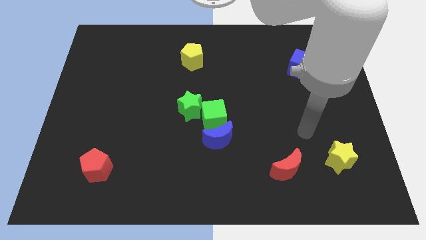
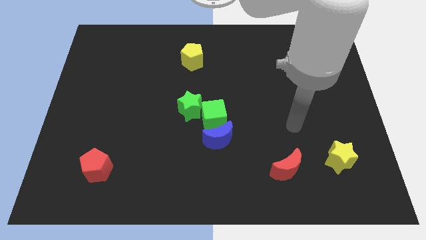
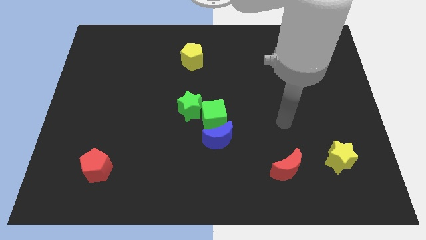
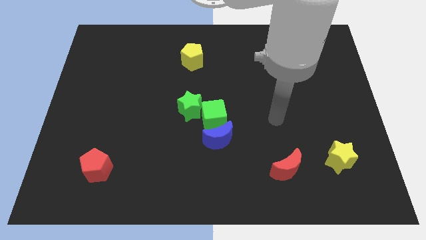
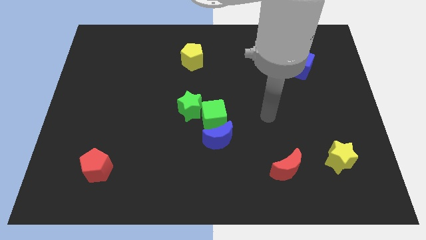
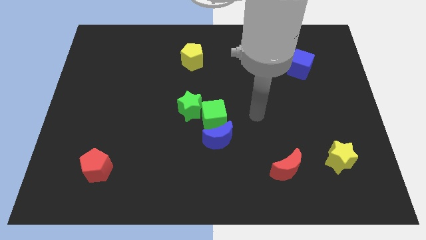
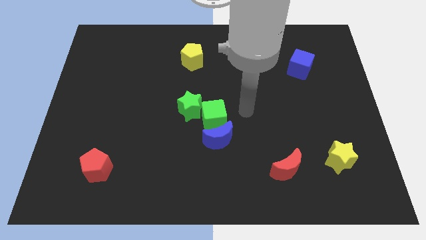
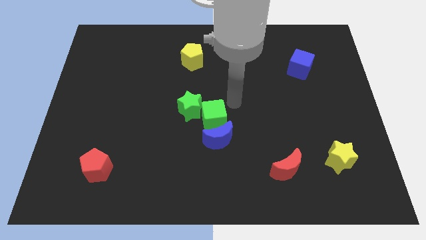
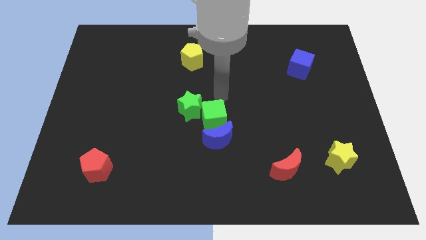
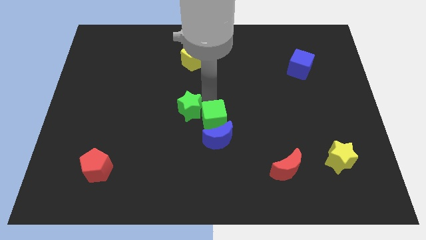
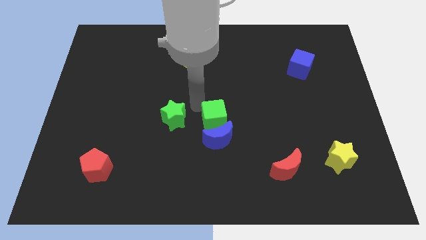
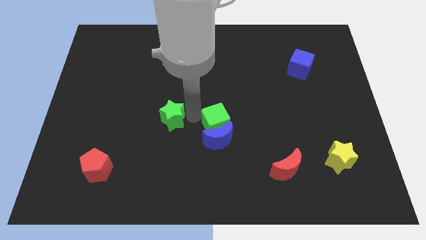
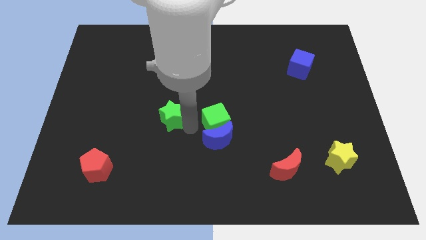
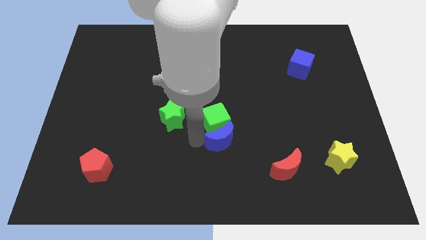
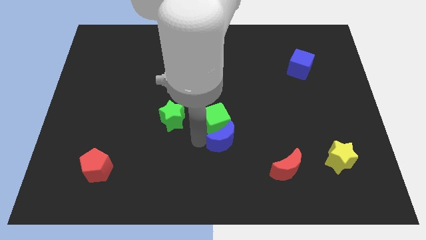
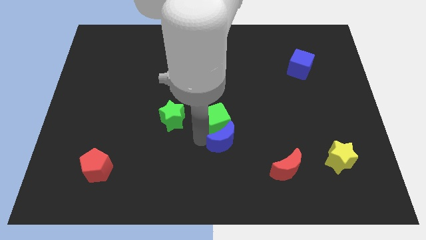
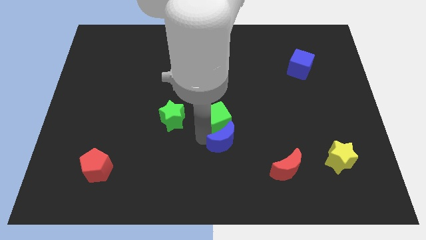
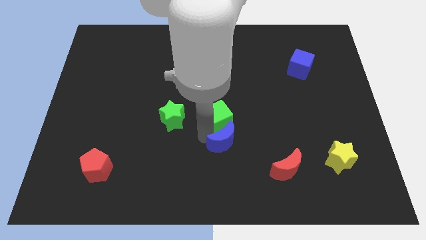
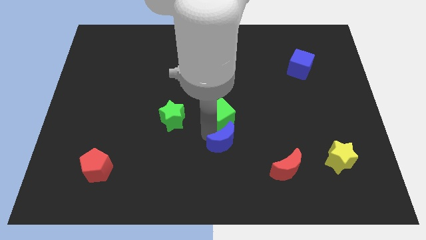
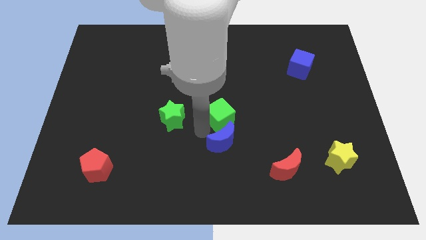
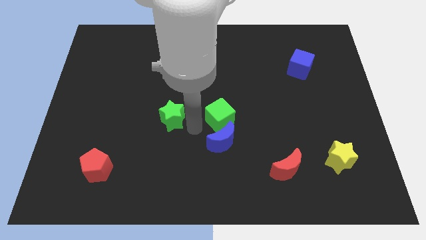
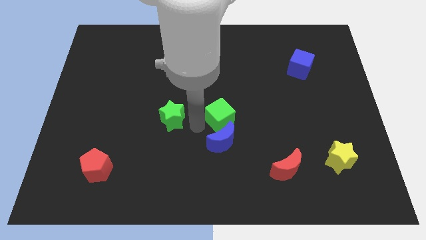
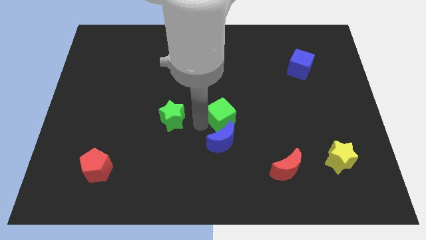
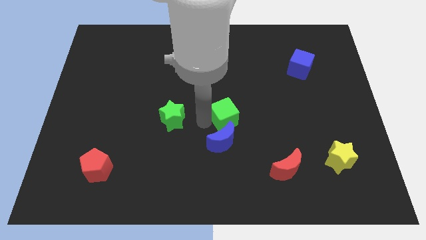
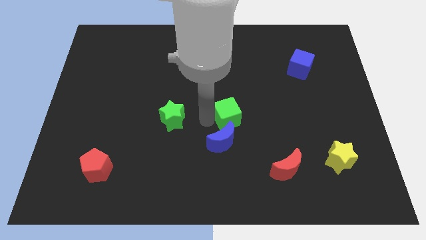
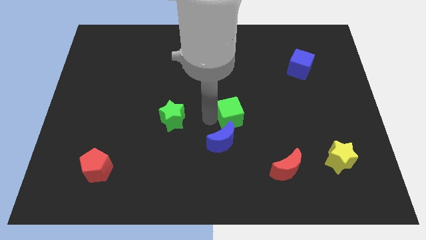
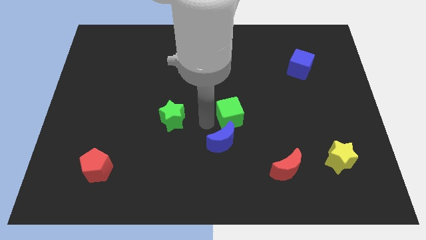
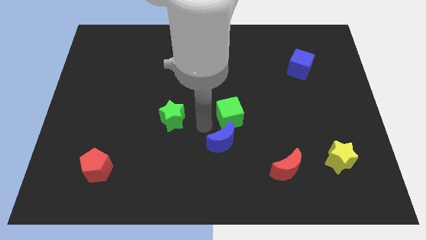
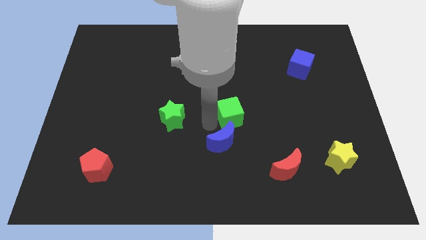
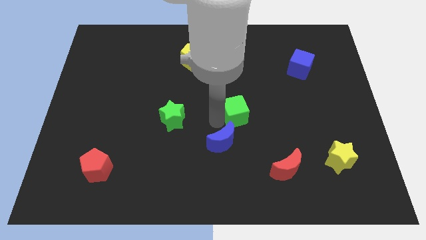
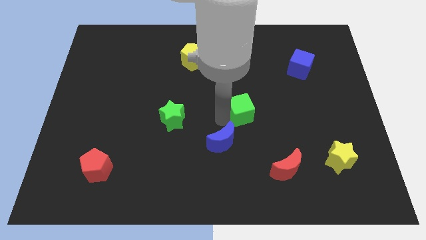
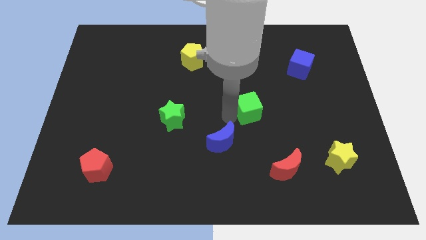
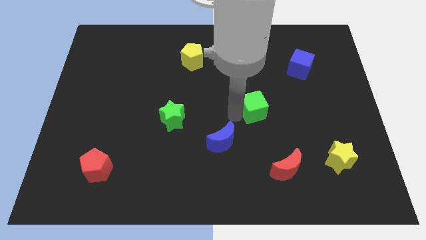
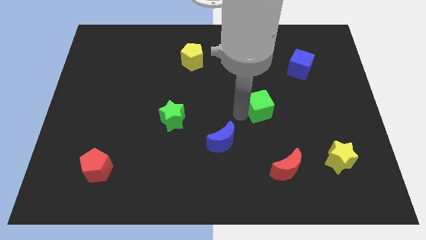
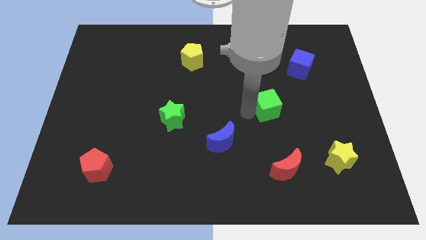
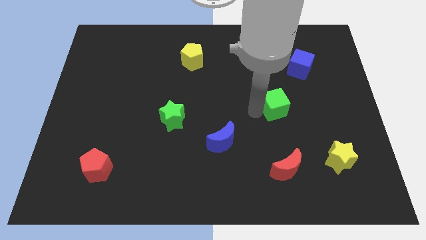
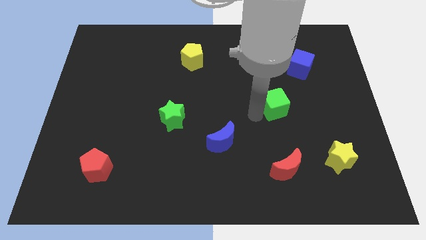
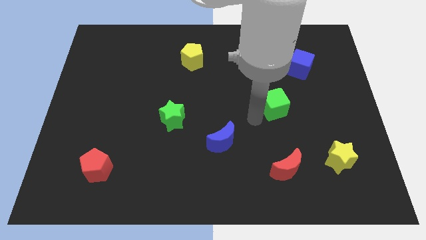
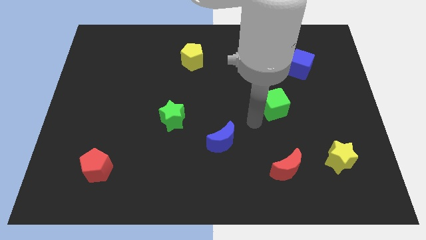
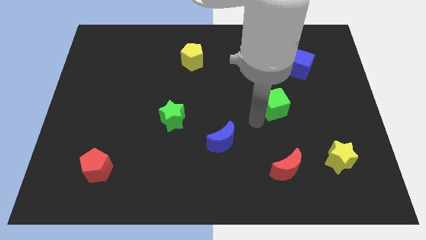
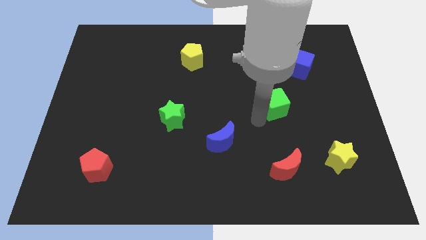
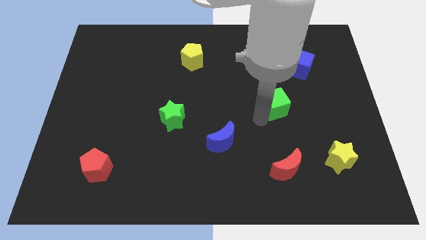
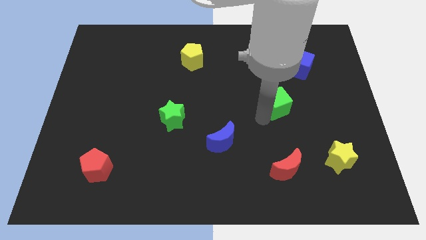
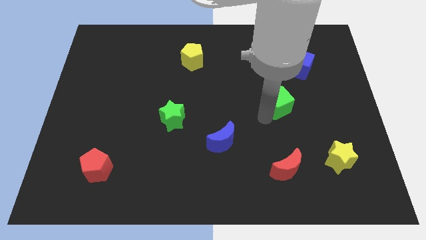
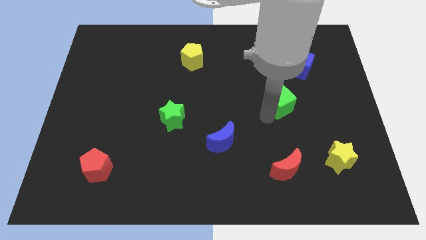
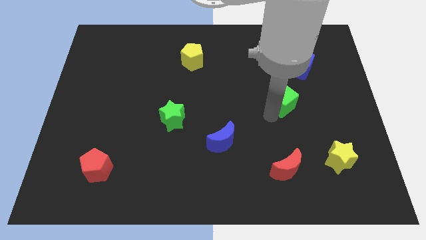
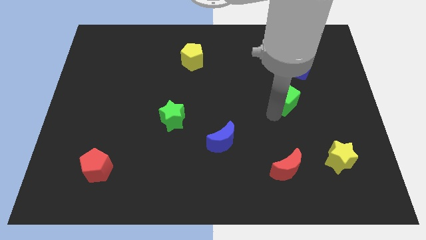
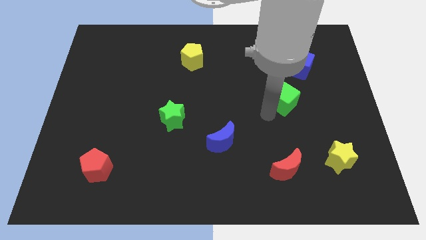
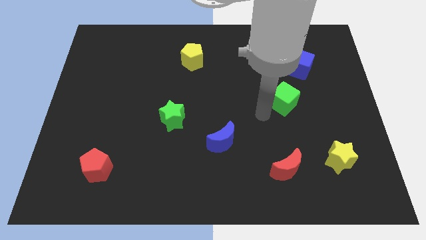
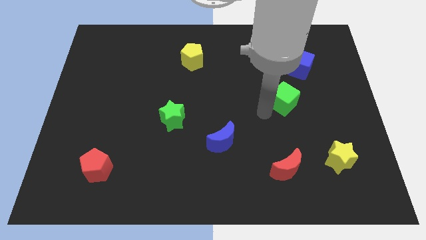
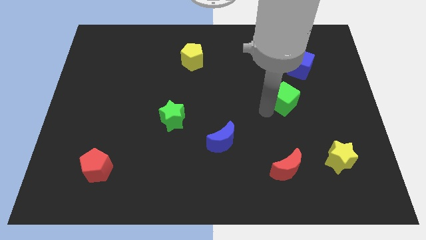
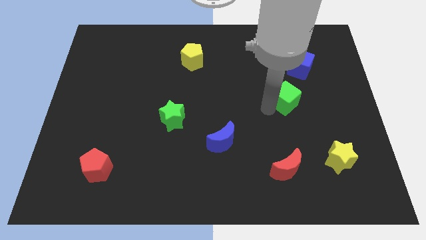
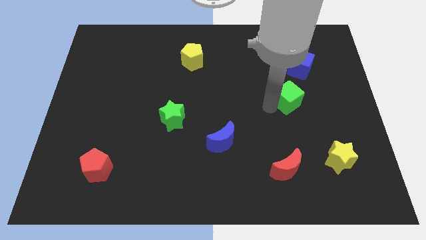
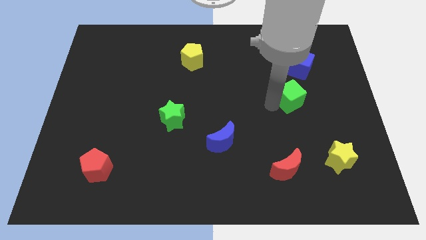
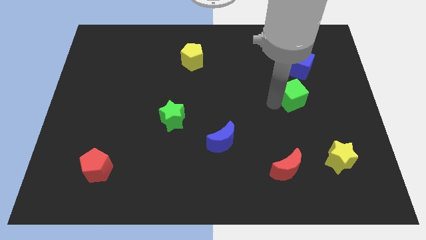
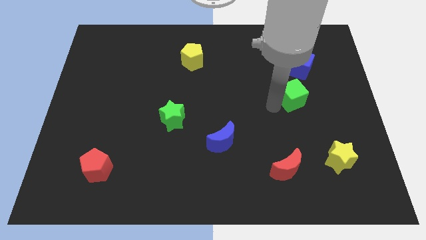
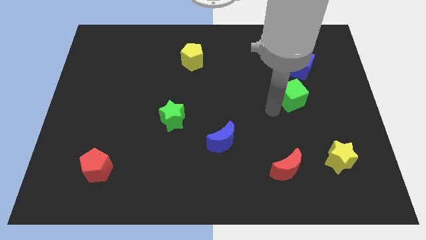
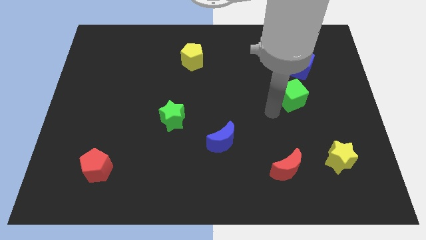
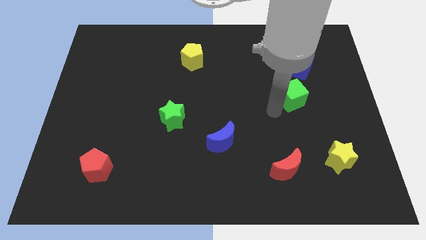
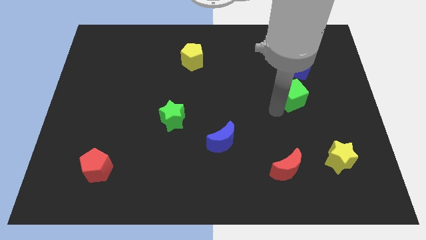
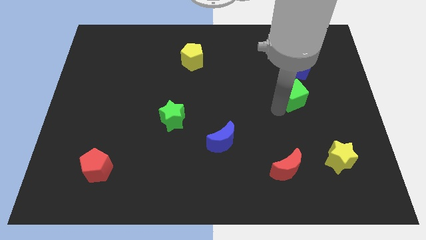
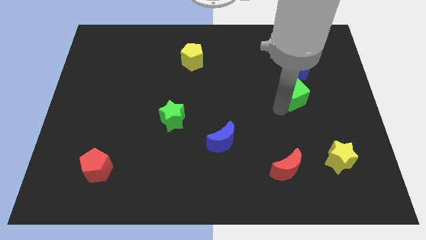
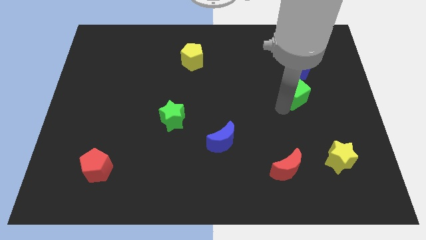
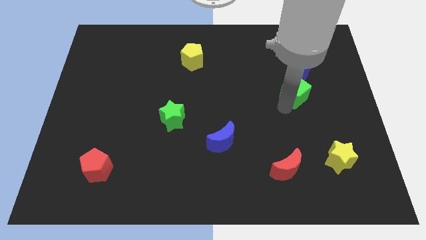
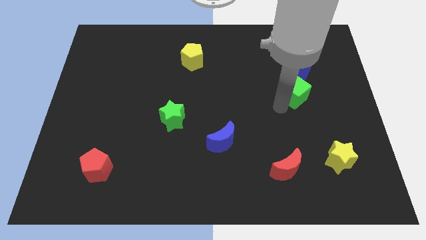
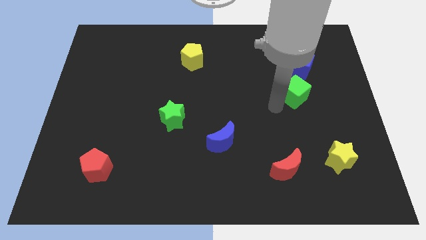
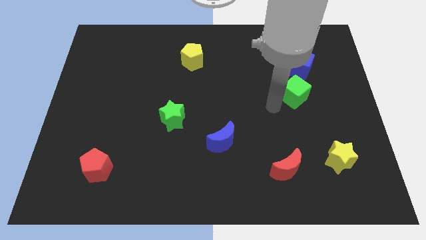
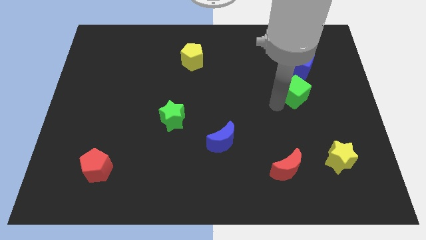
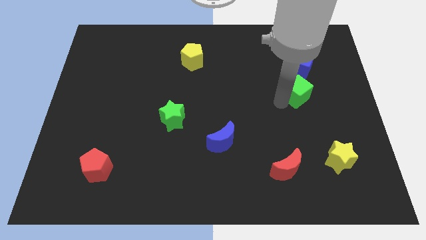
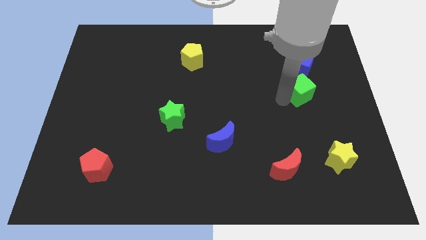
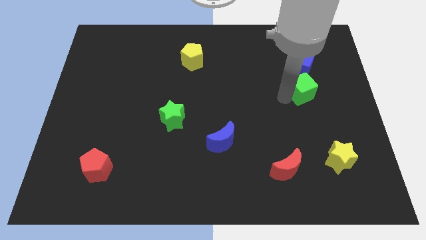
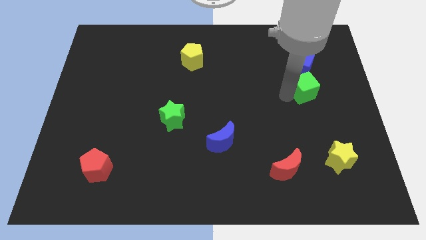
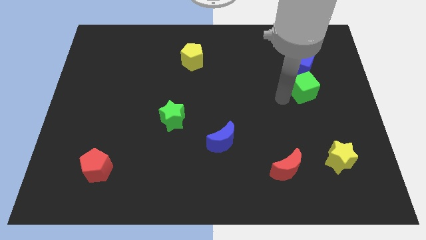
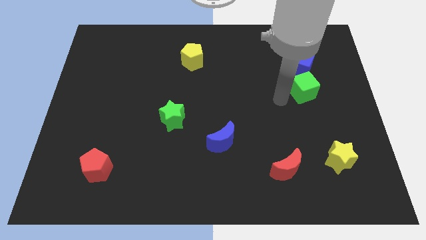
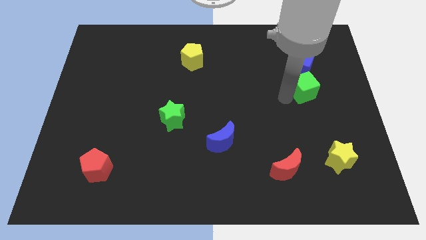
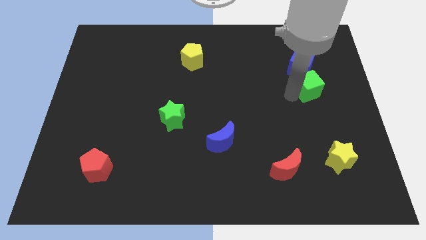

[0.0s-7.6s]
move the green cube to the bottom right of the blue cube
